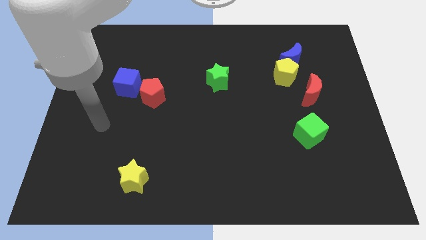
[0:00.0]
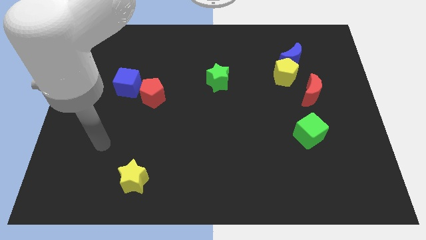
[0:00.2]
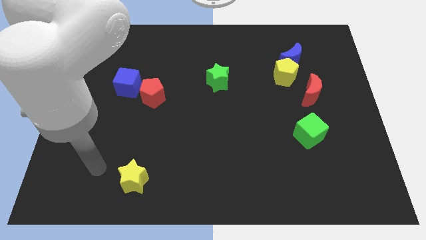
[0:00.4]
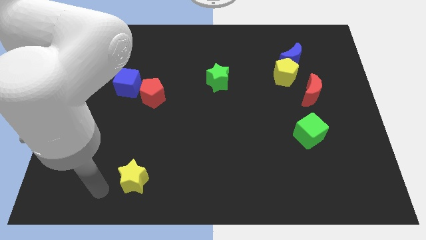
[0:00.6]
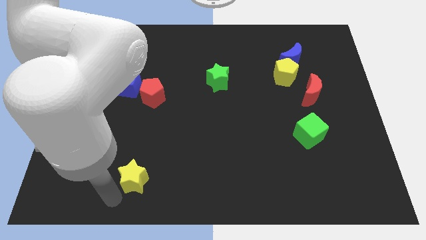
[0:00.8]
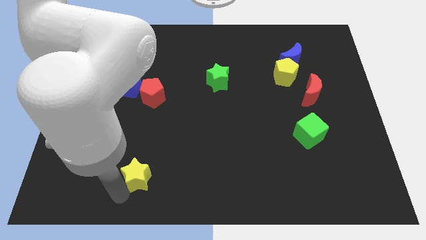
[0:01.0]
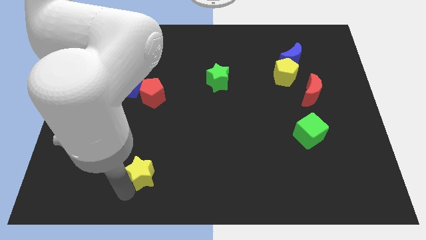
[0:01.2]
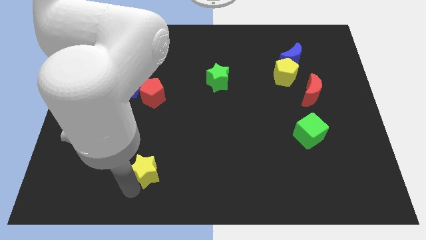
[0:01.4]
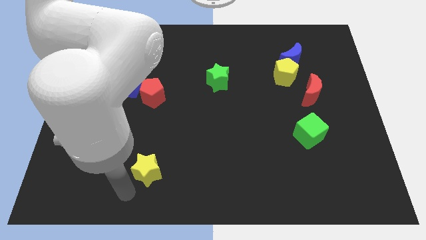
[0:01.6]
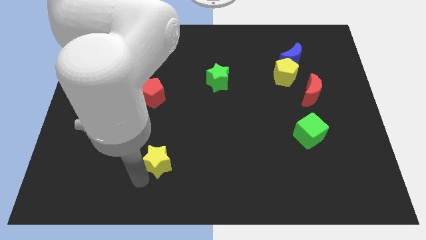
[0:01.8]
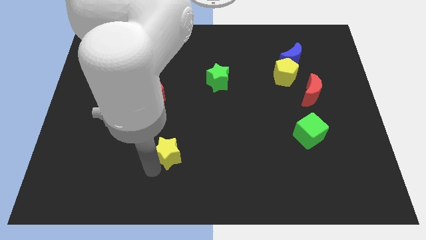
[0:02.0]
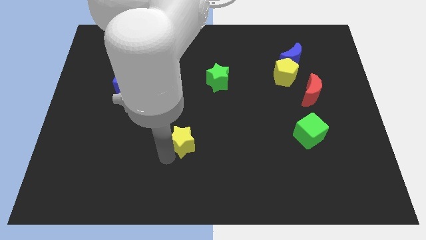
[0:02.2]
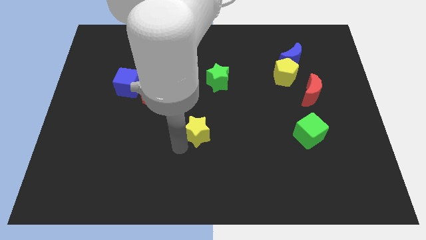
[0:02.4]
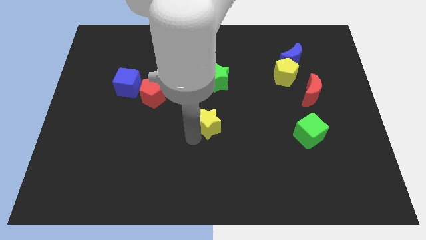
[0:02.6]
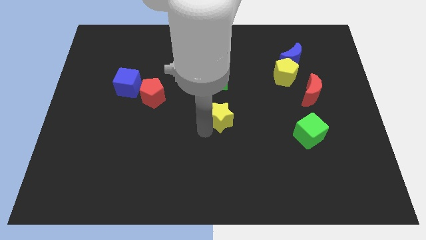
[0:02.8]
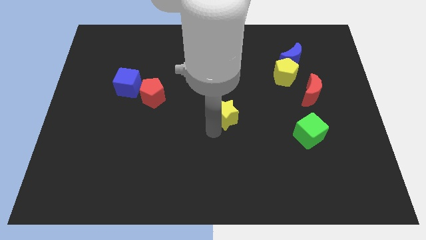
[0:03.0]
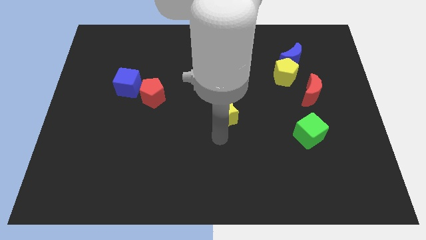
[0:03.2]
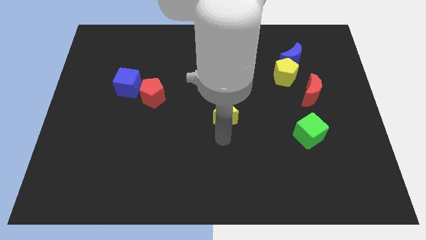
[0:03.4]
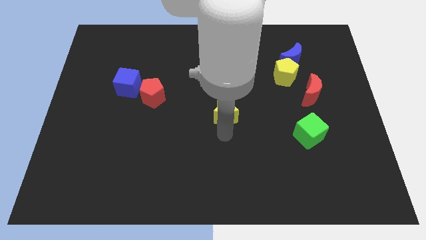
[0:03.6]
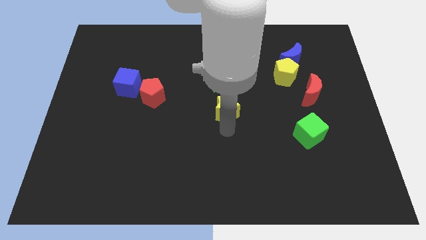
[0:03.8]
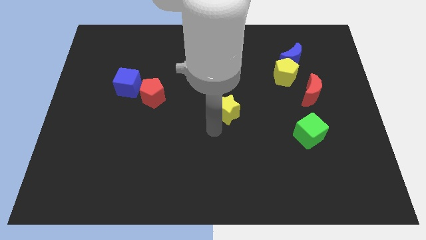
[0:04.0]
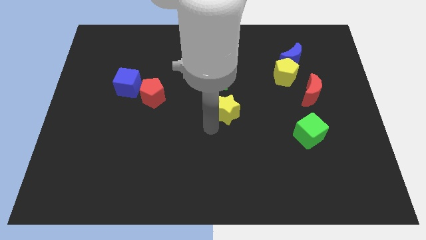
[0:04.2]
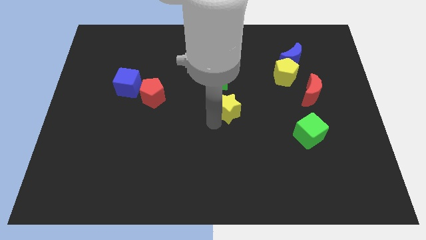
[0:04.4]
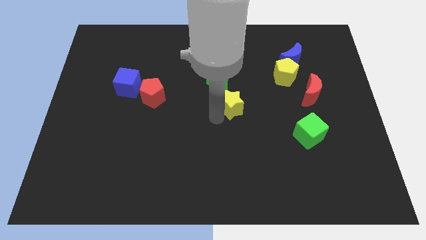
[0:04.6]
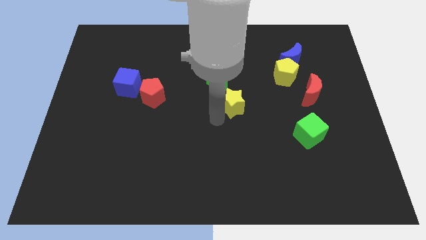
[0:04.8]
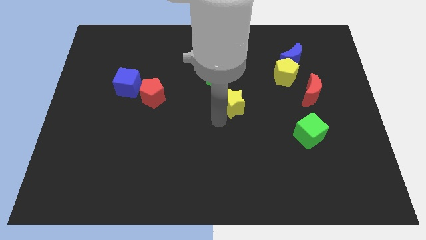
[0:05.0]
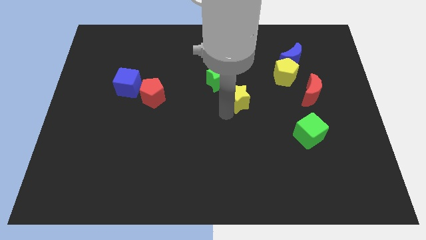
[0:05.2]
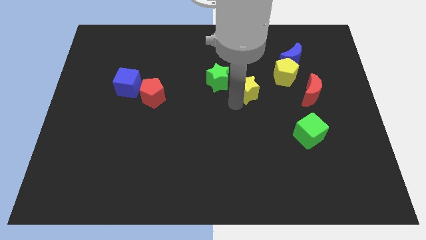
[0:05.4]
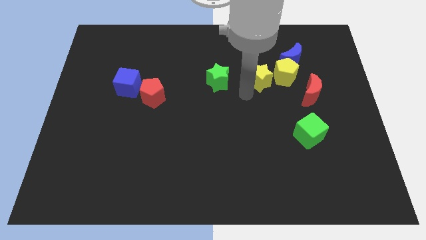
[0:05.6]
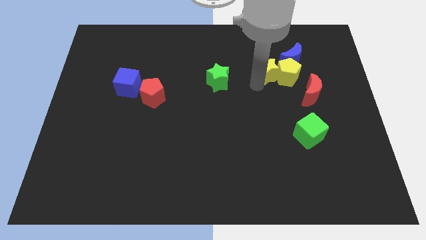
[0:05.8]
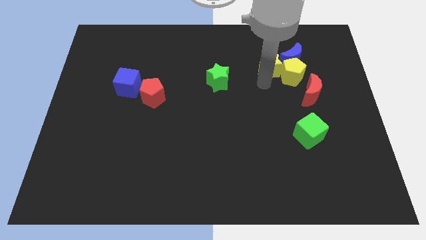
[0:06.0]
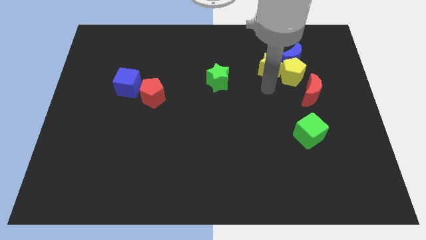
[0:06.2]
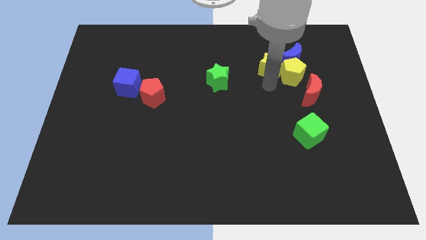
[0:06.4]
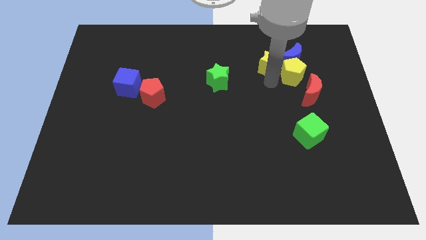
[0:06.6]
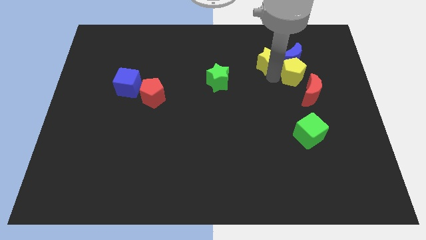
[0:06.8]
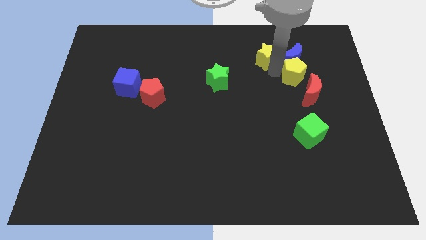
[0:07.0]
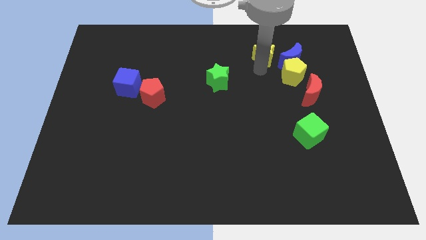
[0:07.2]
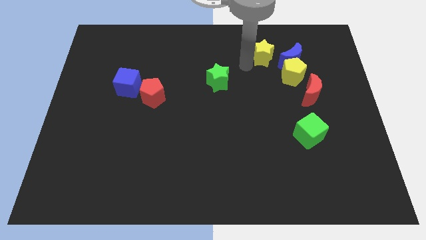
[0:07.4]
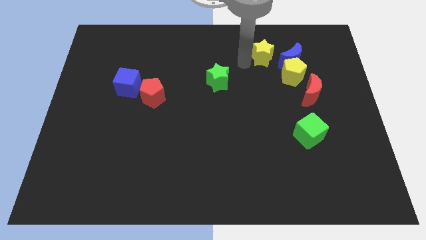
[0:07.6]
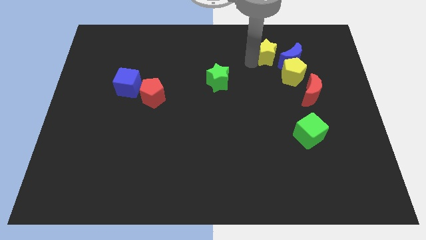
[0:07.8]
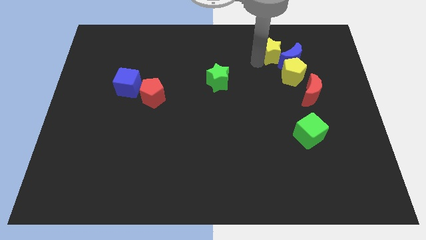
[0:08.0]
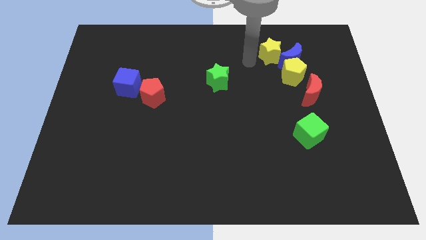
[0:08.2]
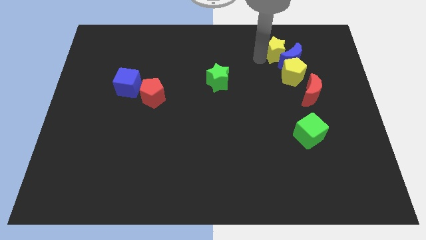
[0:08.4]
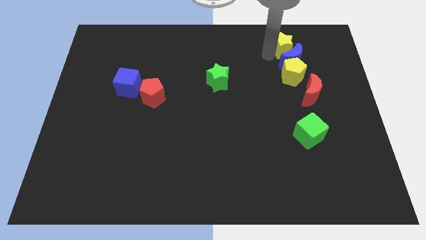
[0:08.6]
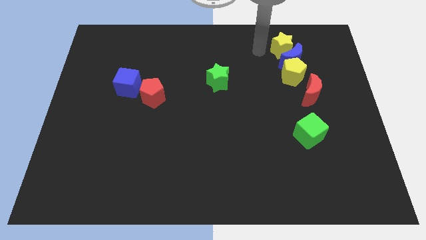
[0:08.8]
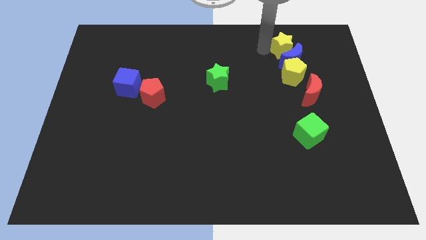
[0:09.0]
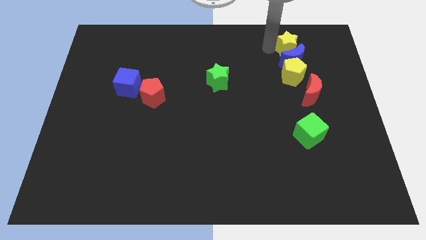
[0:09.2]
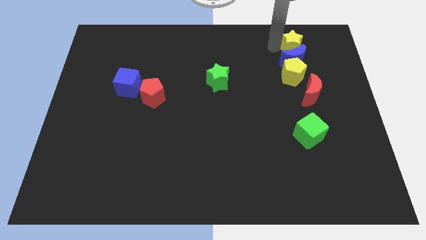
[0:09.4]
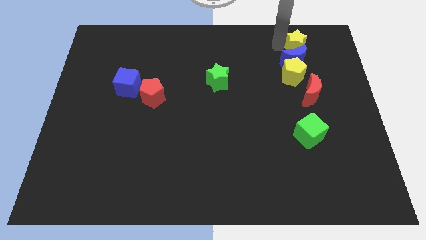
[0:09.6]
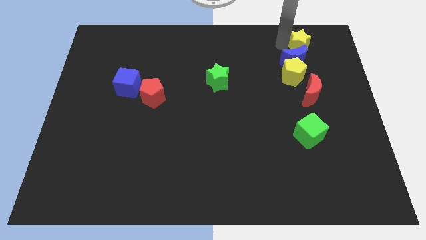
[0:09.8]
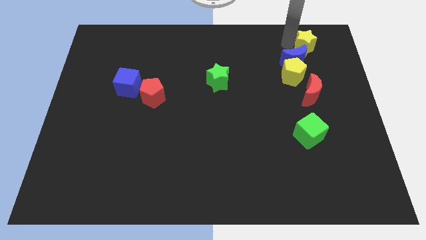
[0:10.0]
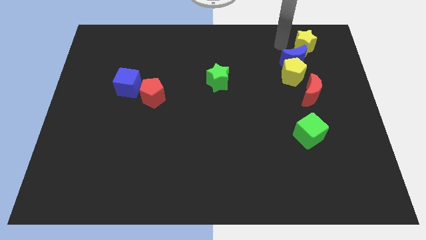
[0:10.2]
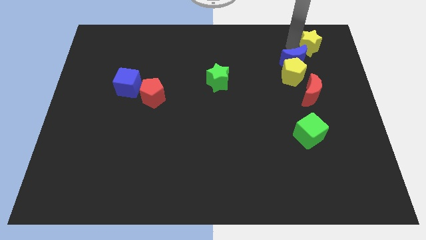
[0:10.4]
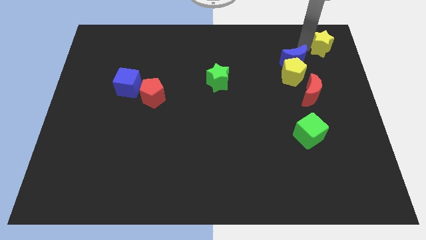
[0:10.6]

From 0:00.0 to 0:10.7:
slide the yellow star to the upper right corner

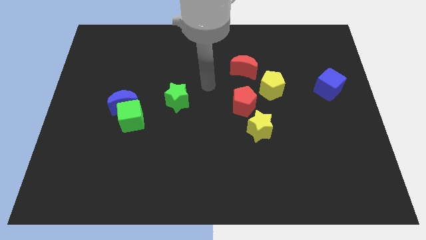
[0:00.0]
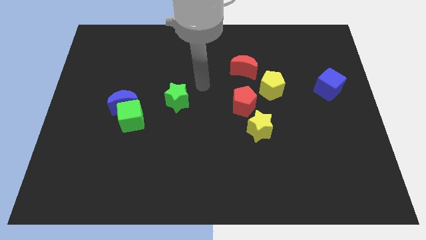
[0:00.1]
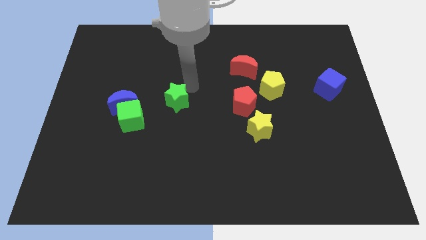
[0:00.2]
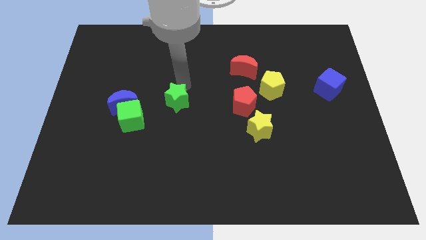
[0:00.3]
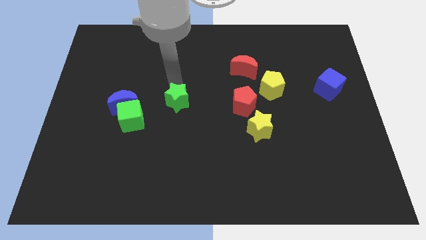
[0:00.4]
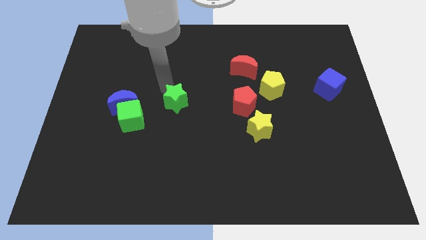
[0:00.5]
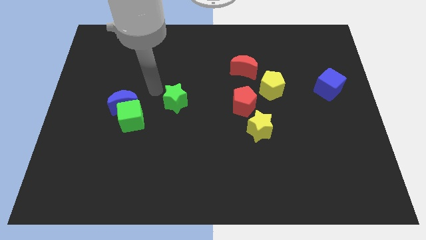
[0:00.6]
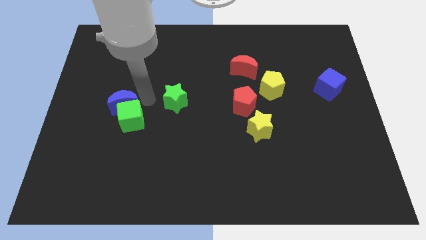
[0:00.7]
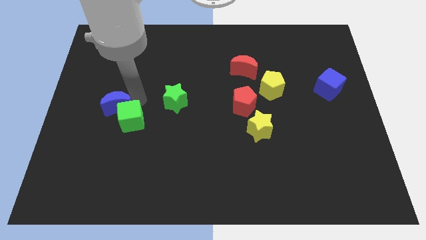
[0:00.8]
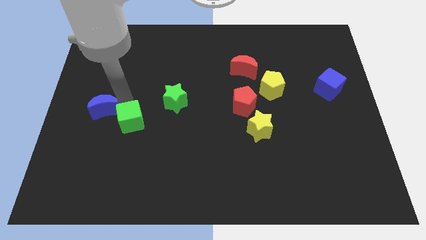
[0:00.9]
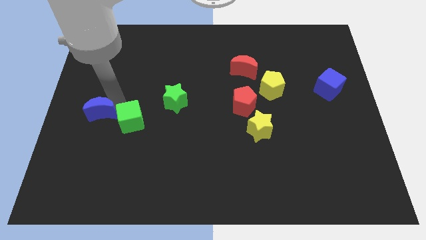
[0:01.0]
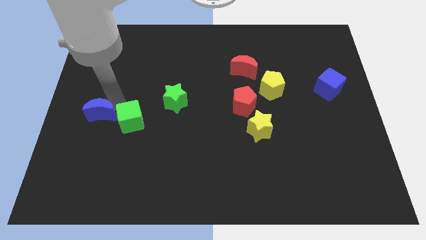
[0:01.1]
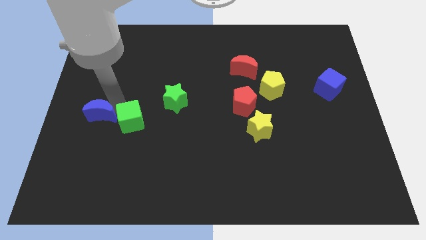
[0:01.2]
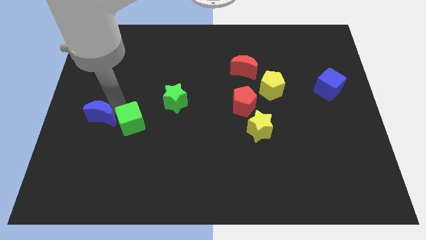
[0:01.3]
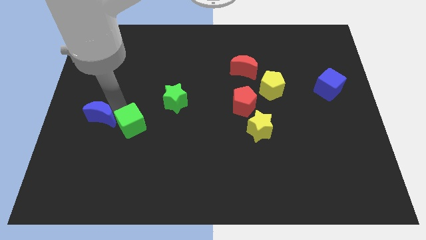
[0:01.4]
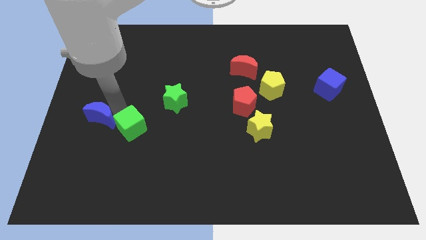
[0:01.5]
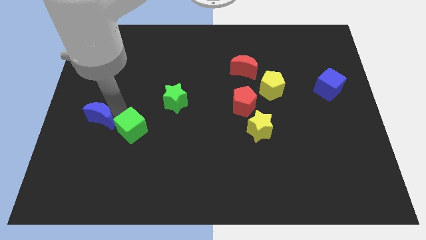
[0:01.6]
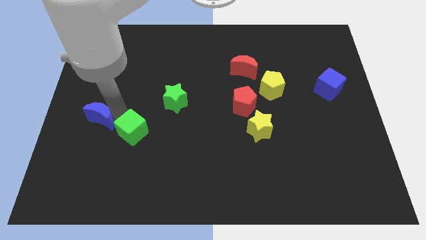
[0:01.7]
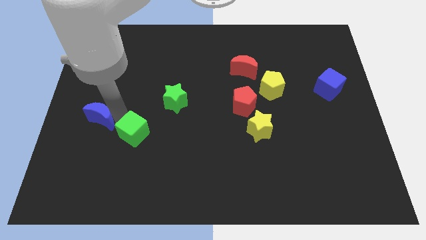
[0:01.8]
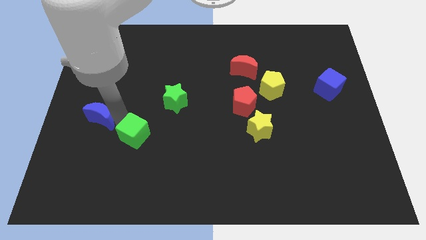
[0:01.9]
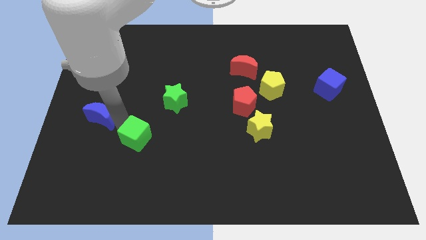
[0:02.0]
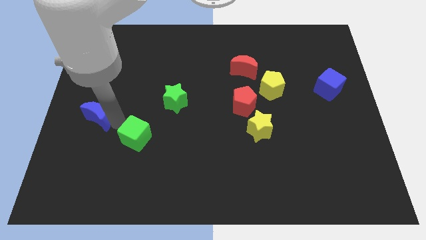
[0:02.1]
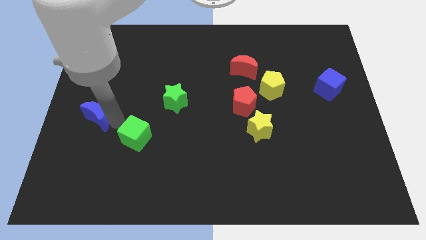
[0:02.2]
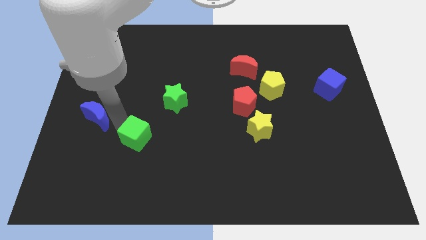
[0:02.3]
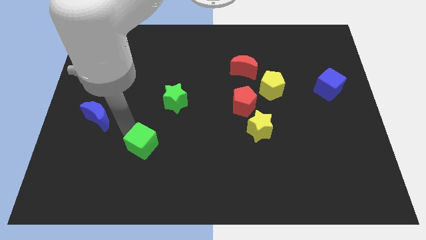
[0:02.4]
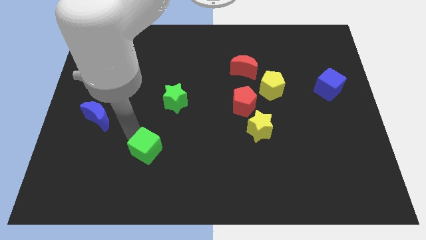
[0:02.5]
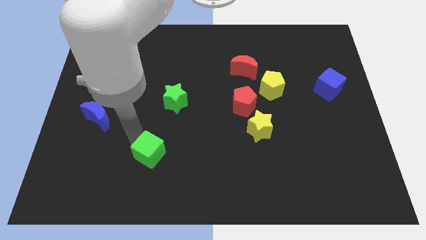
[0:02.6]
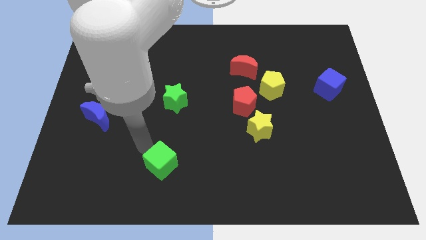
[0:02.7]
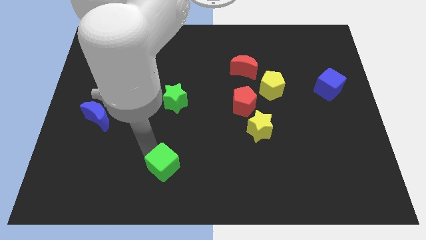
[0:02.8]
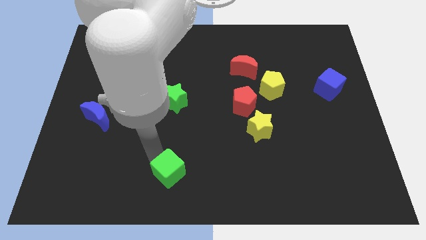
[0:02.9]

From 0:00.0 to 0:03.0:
put the green cube to the bottom
